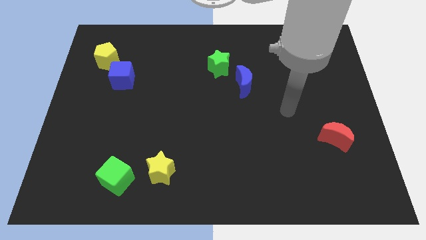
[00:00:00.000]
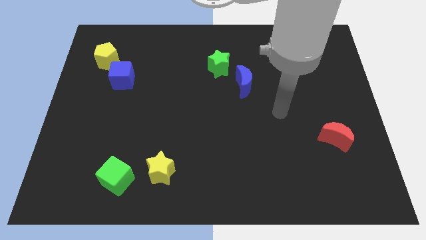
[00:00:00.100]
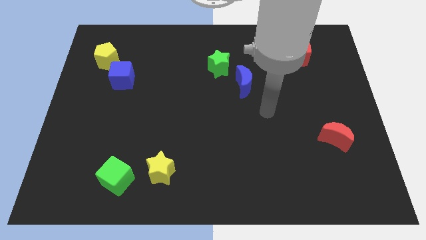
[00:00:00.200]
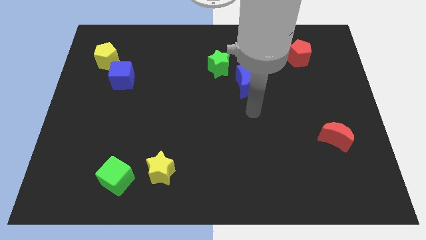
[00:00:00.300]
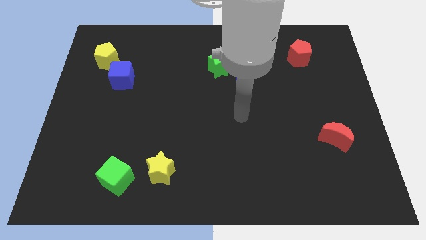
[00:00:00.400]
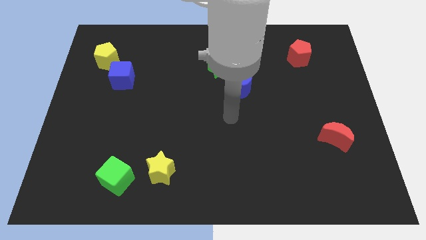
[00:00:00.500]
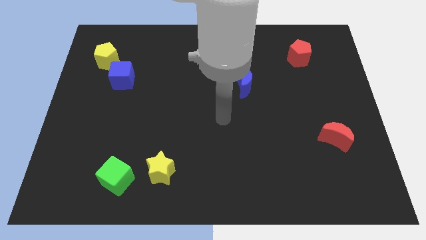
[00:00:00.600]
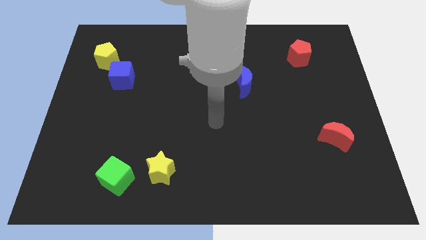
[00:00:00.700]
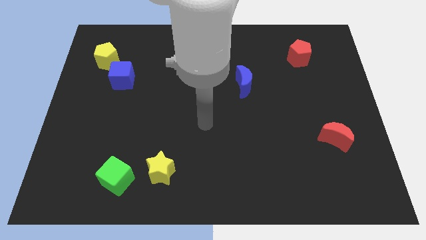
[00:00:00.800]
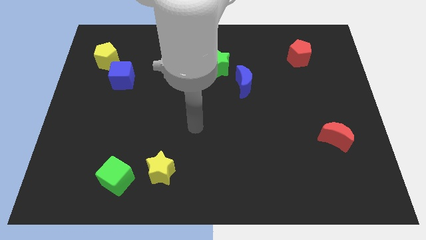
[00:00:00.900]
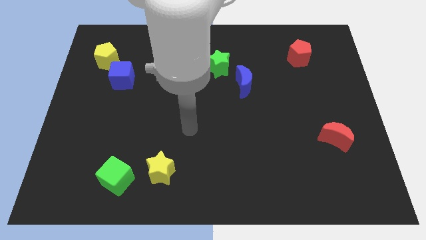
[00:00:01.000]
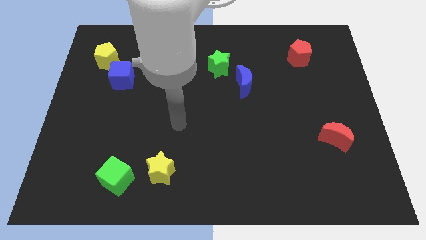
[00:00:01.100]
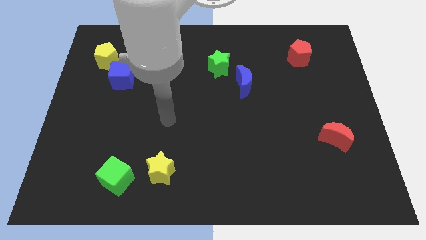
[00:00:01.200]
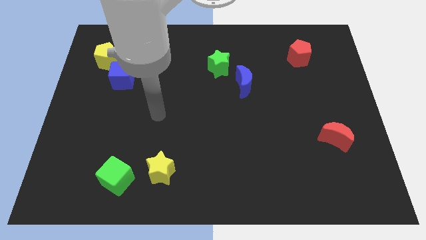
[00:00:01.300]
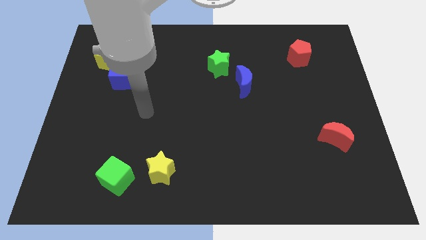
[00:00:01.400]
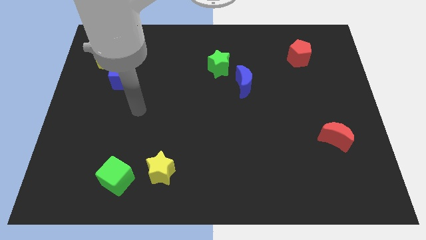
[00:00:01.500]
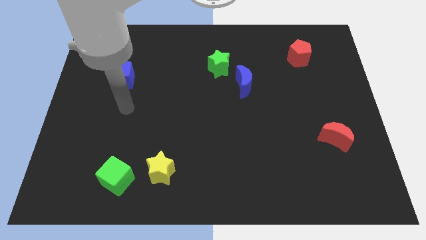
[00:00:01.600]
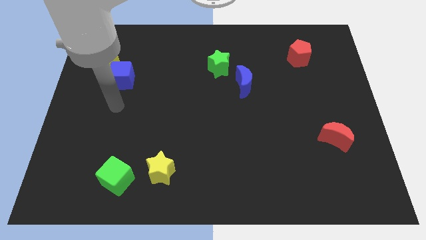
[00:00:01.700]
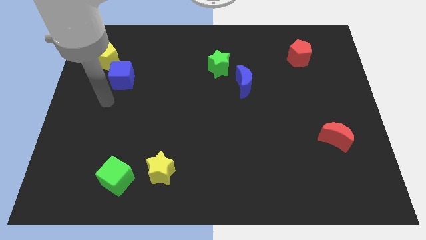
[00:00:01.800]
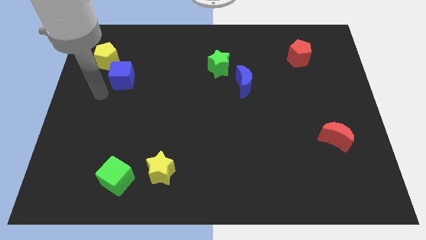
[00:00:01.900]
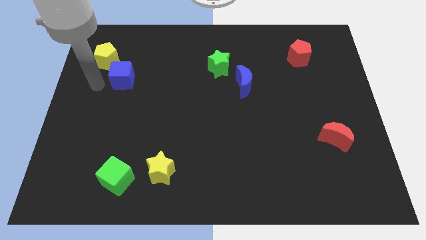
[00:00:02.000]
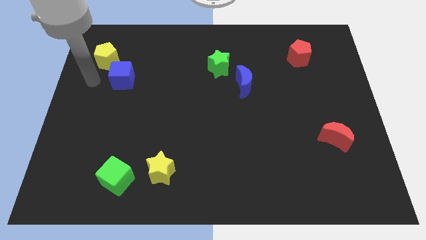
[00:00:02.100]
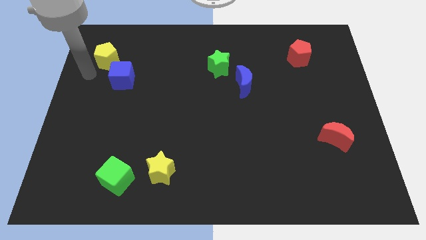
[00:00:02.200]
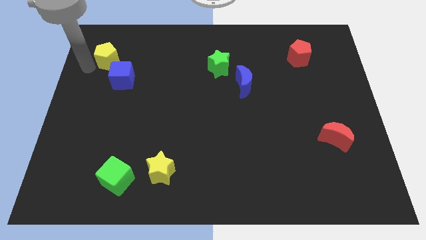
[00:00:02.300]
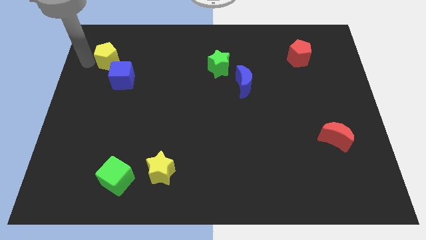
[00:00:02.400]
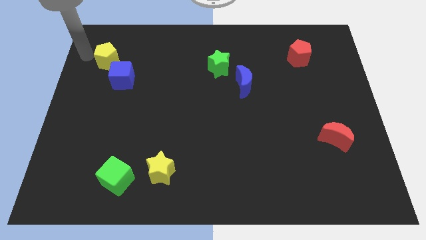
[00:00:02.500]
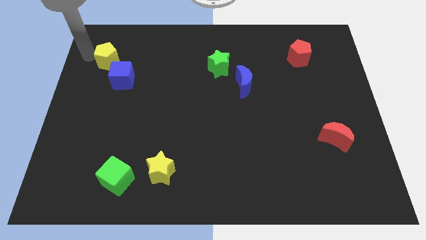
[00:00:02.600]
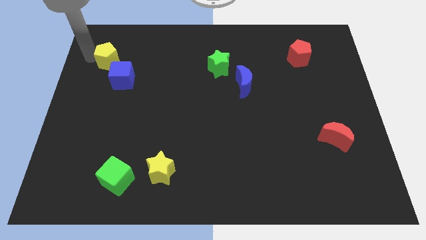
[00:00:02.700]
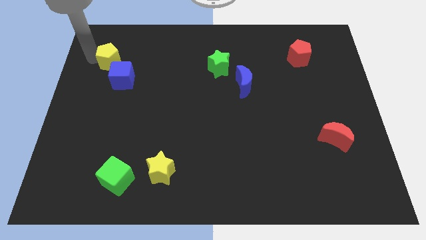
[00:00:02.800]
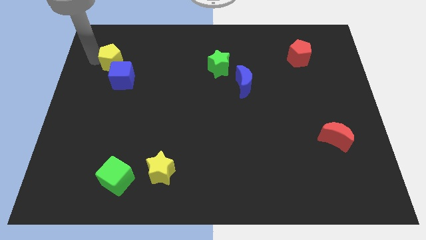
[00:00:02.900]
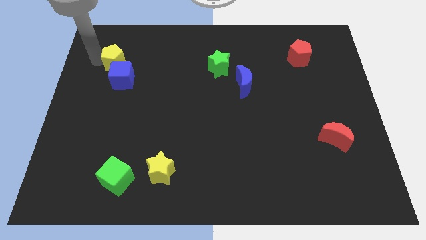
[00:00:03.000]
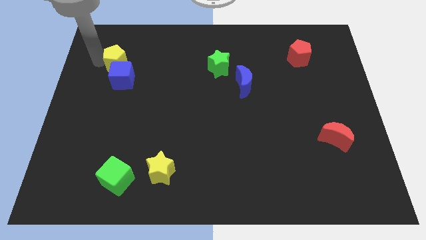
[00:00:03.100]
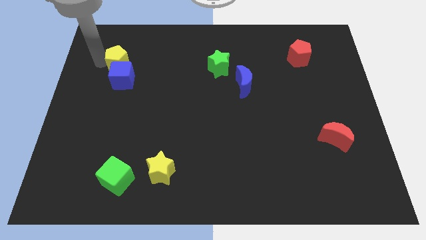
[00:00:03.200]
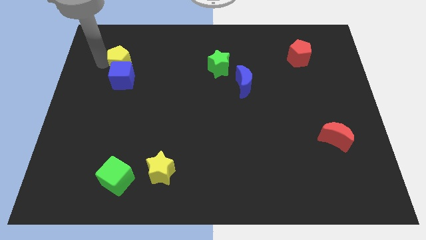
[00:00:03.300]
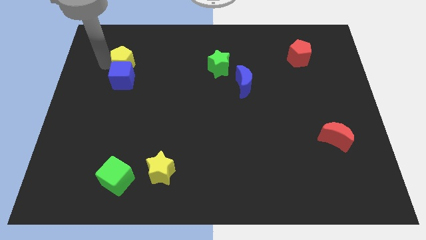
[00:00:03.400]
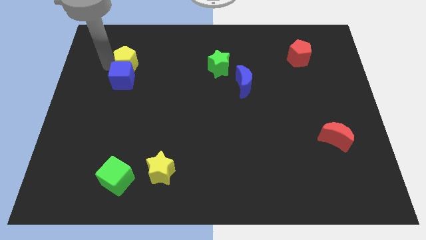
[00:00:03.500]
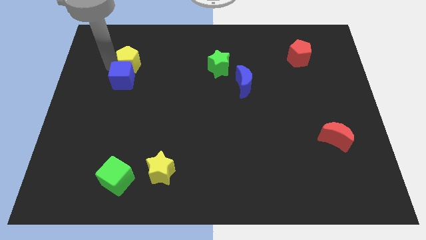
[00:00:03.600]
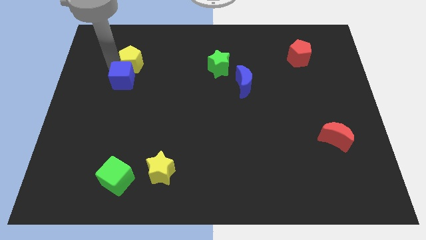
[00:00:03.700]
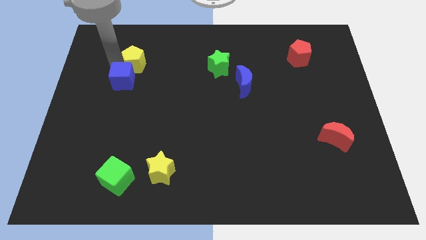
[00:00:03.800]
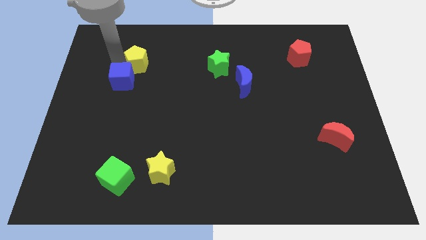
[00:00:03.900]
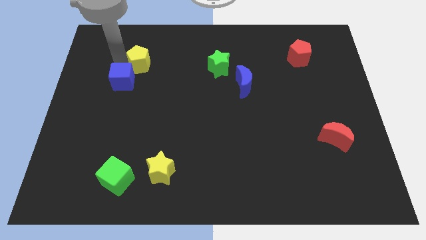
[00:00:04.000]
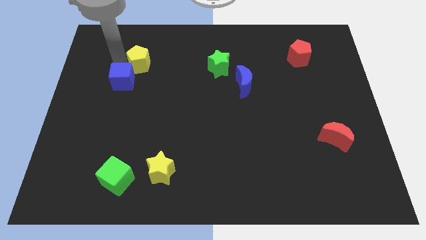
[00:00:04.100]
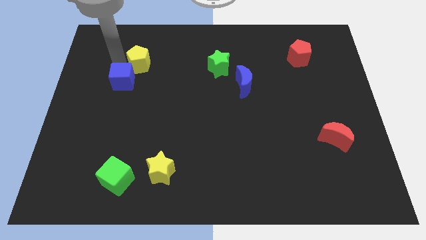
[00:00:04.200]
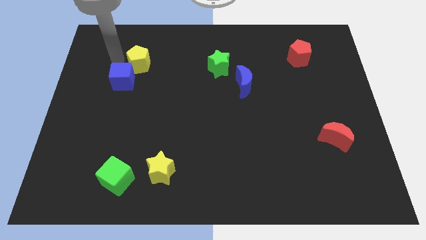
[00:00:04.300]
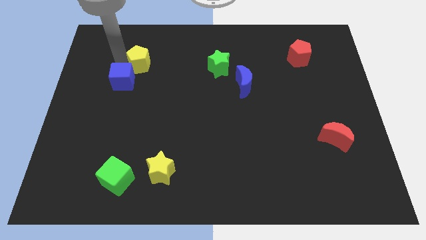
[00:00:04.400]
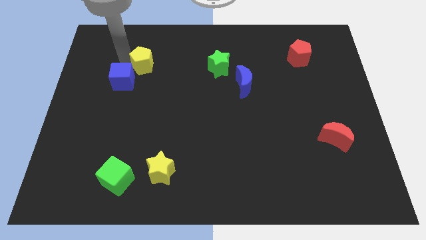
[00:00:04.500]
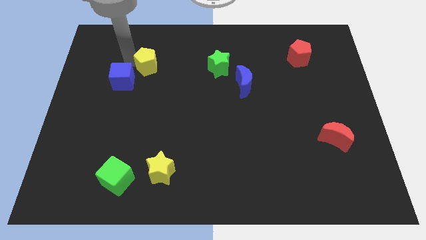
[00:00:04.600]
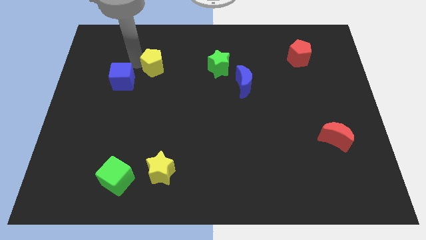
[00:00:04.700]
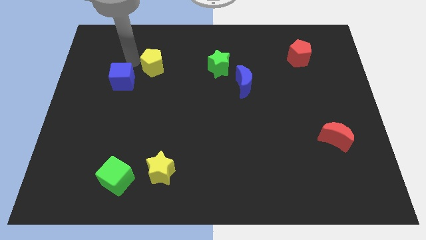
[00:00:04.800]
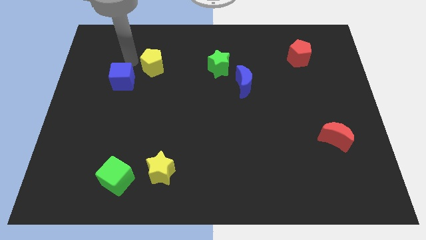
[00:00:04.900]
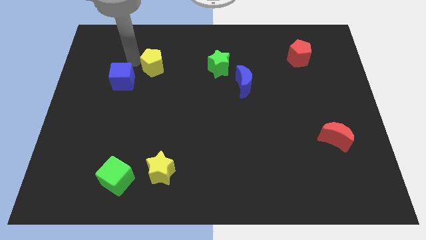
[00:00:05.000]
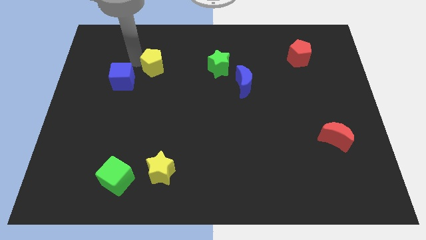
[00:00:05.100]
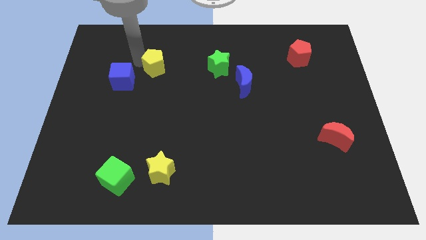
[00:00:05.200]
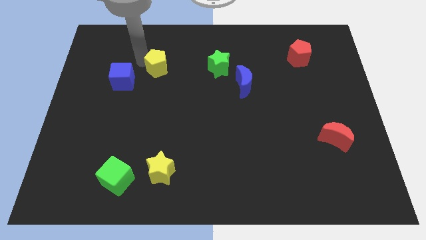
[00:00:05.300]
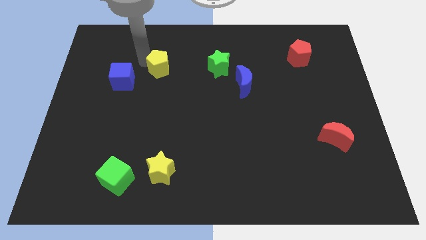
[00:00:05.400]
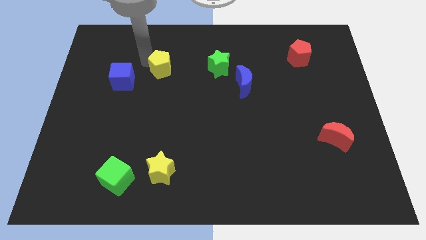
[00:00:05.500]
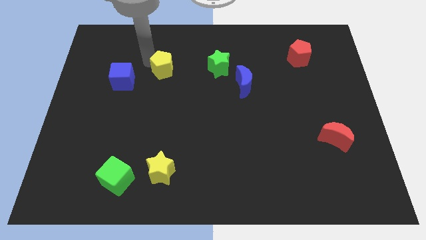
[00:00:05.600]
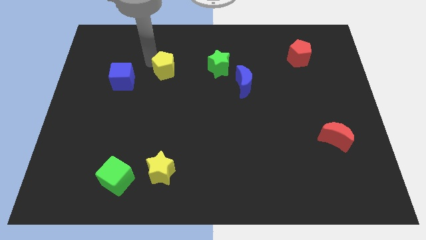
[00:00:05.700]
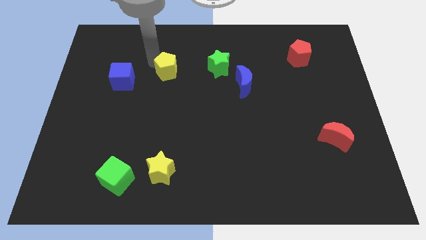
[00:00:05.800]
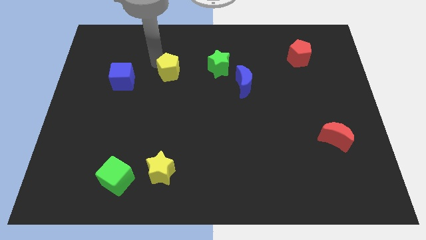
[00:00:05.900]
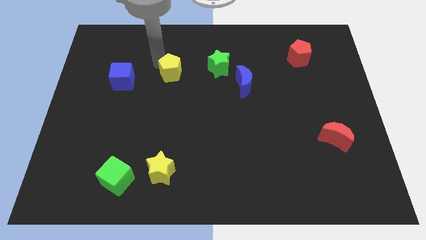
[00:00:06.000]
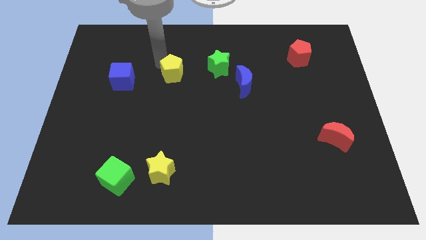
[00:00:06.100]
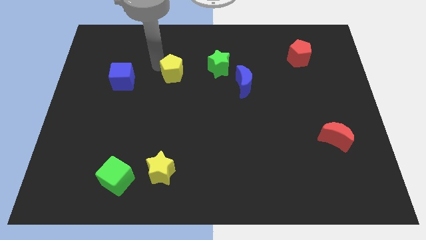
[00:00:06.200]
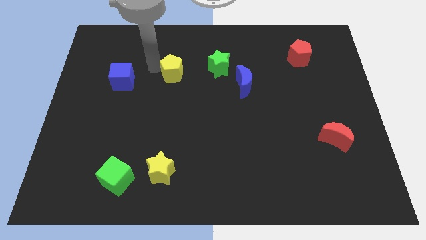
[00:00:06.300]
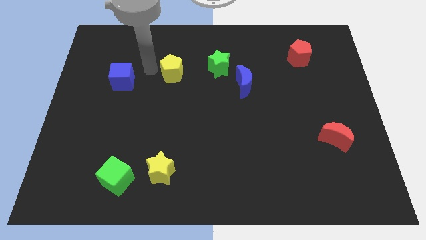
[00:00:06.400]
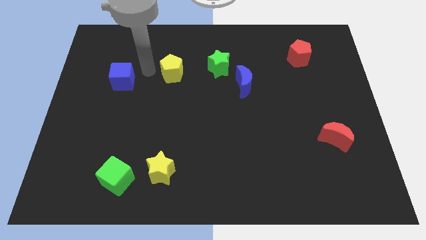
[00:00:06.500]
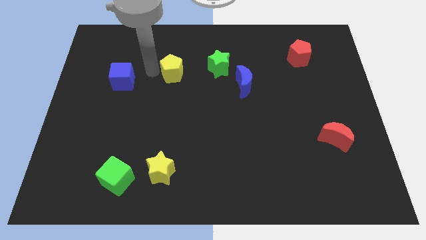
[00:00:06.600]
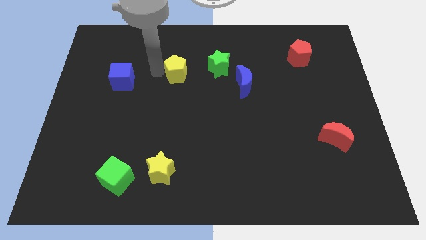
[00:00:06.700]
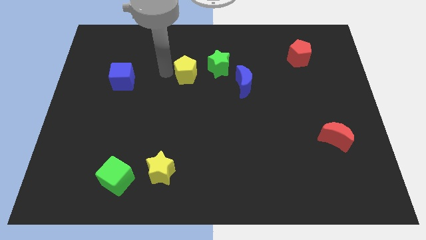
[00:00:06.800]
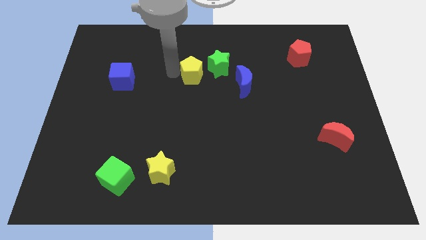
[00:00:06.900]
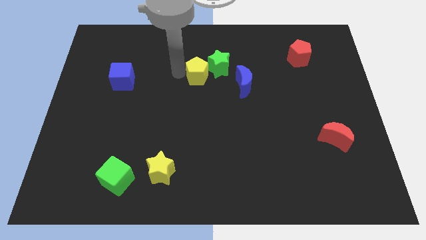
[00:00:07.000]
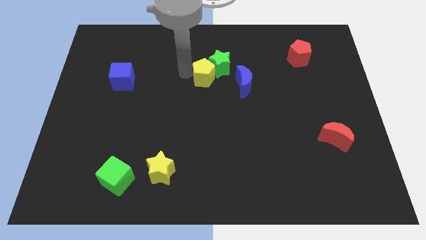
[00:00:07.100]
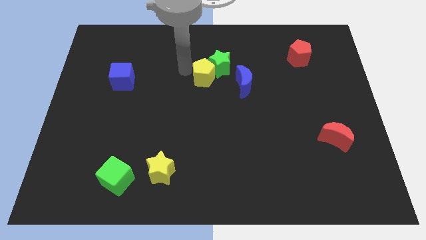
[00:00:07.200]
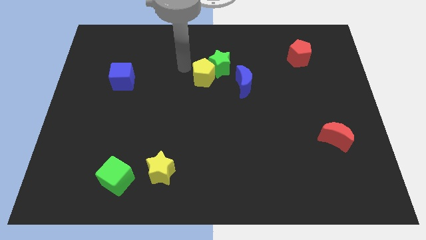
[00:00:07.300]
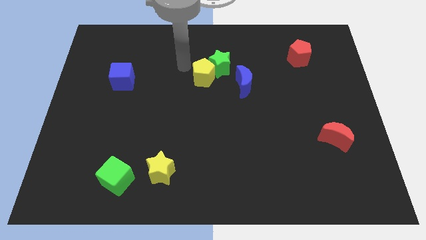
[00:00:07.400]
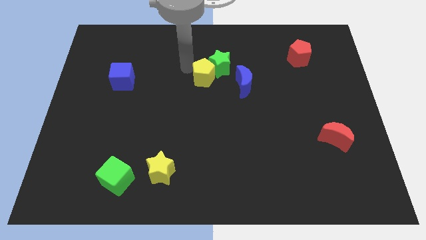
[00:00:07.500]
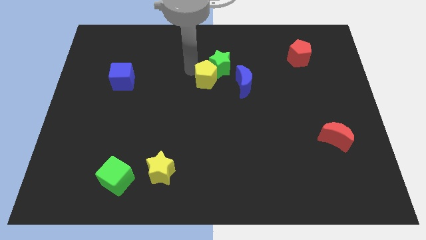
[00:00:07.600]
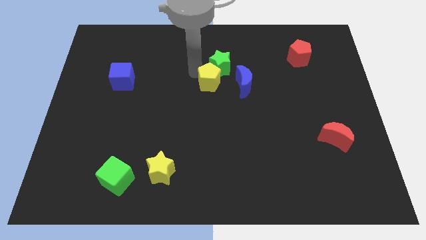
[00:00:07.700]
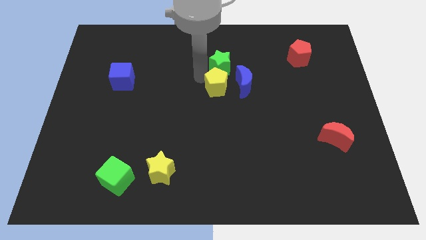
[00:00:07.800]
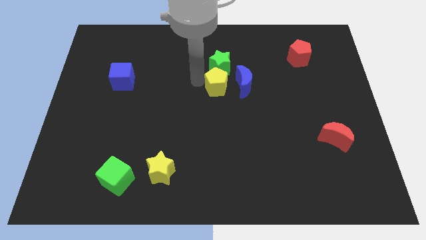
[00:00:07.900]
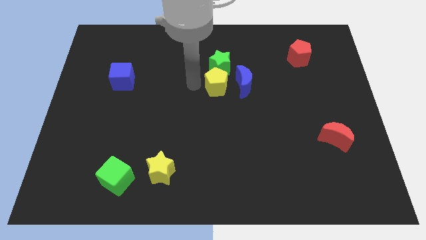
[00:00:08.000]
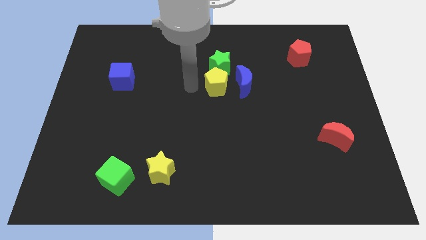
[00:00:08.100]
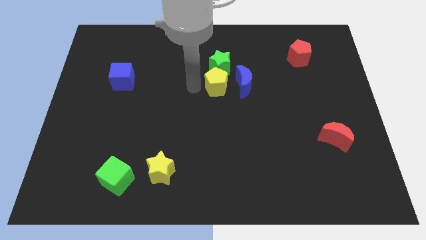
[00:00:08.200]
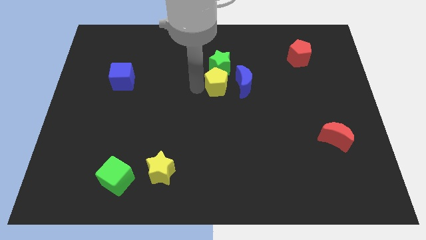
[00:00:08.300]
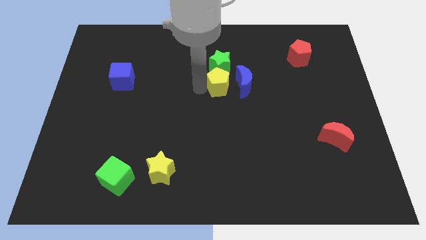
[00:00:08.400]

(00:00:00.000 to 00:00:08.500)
slide the yellow pentagon towards the blue moon
